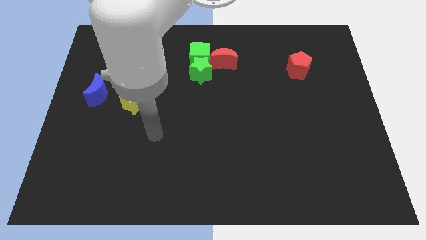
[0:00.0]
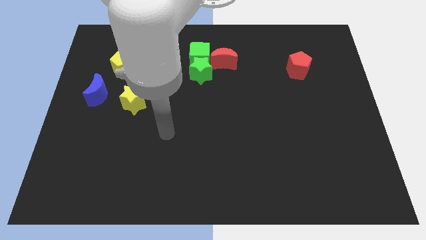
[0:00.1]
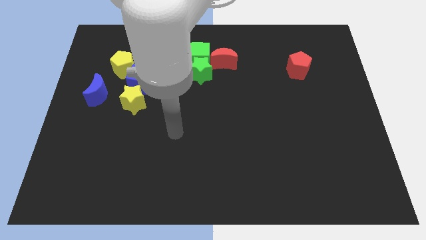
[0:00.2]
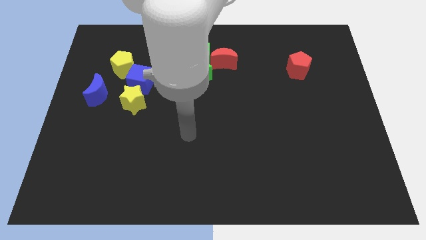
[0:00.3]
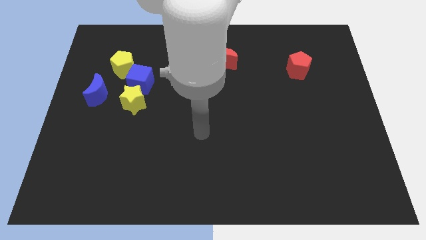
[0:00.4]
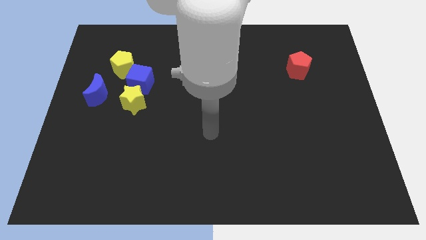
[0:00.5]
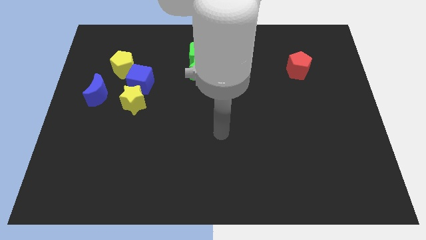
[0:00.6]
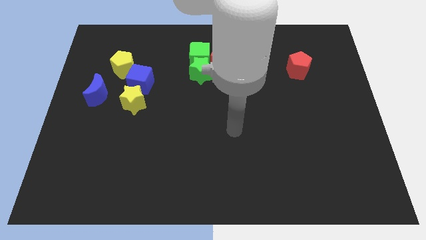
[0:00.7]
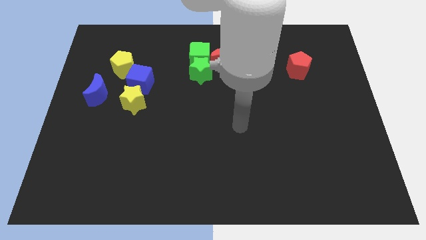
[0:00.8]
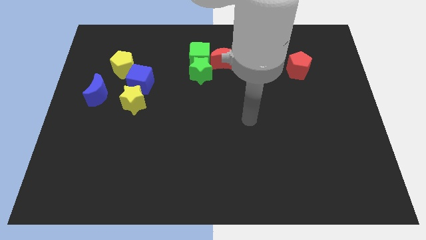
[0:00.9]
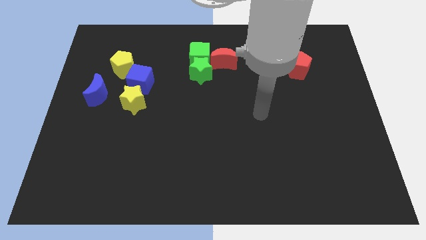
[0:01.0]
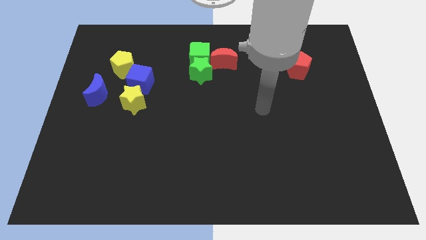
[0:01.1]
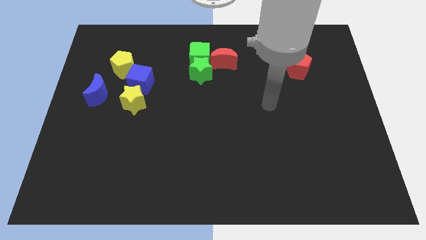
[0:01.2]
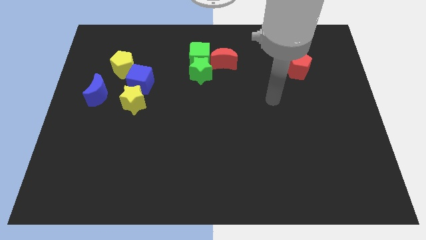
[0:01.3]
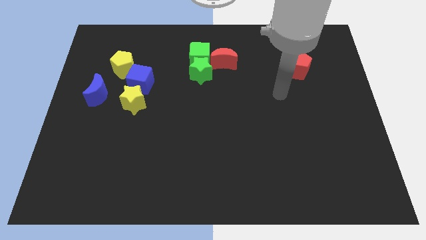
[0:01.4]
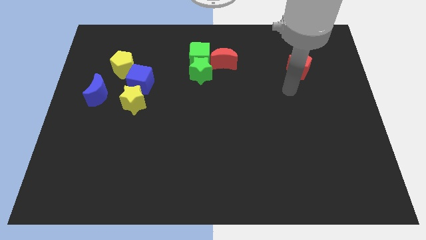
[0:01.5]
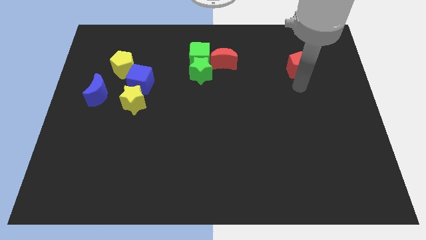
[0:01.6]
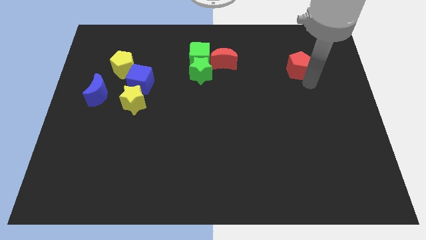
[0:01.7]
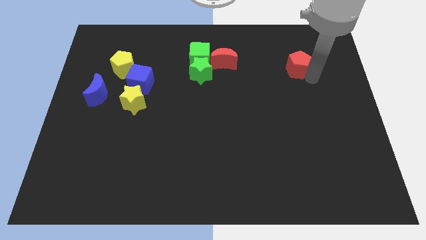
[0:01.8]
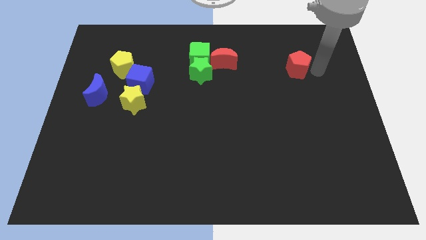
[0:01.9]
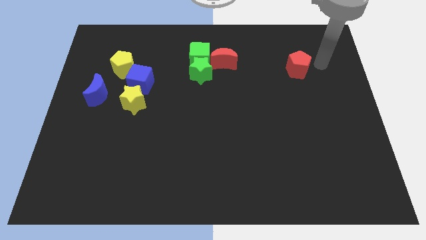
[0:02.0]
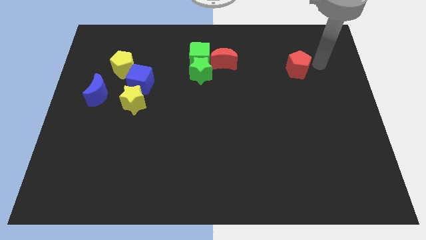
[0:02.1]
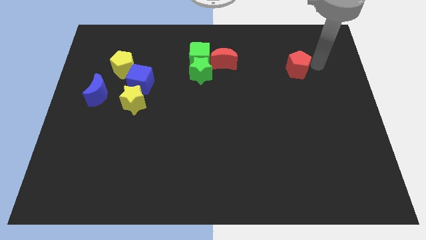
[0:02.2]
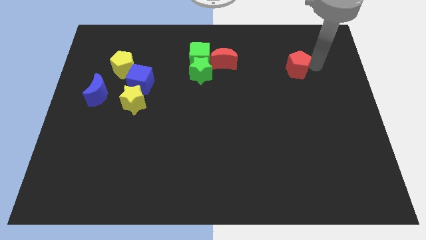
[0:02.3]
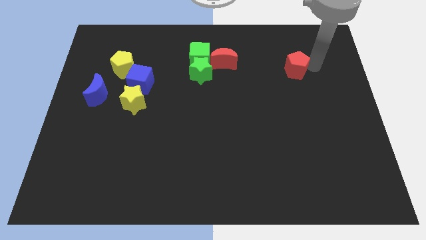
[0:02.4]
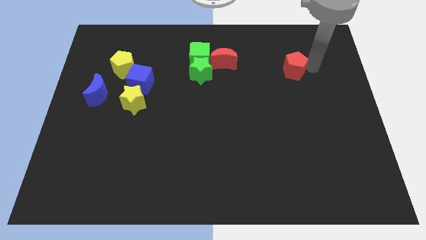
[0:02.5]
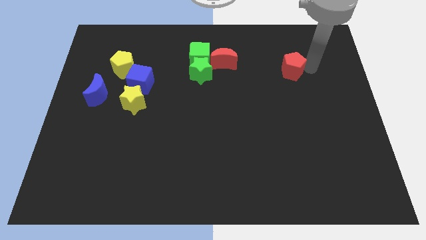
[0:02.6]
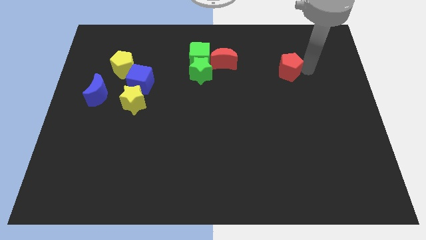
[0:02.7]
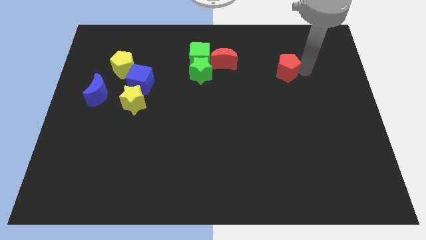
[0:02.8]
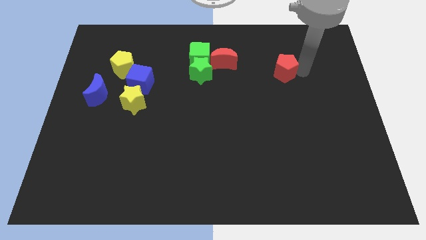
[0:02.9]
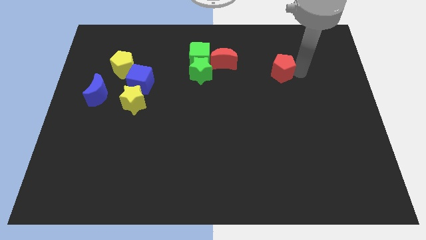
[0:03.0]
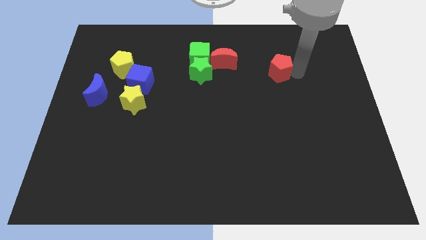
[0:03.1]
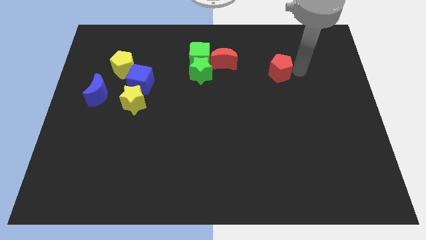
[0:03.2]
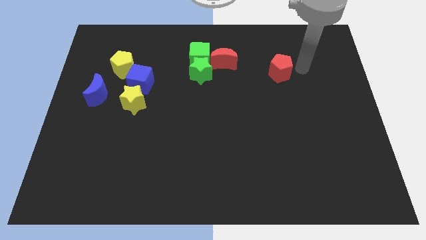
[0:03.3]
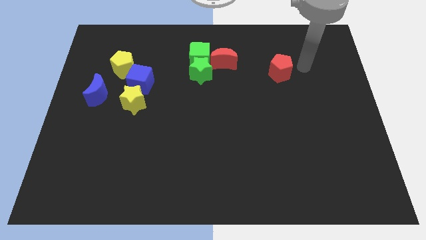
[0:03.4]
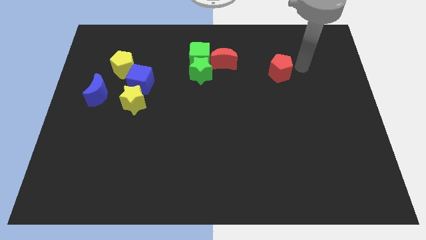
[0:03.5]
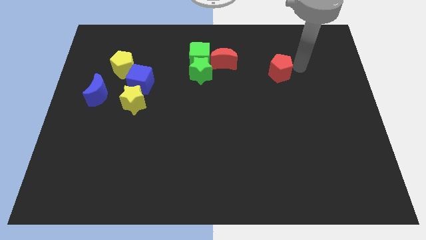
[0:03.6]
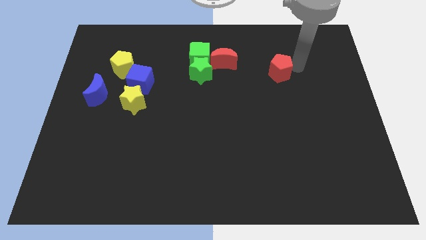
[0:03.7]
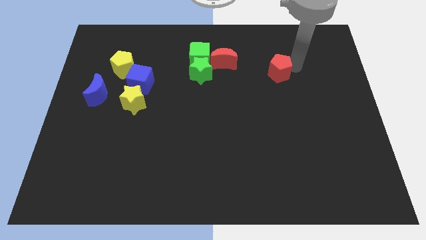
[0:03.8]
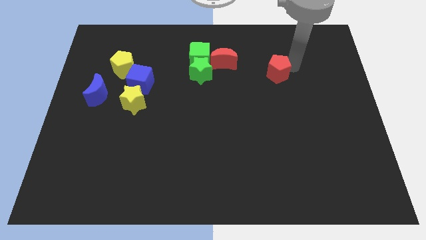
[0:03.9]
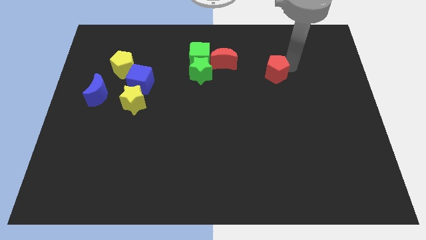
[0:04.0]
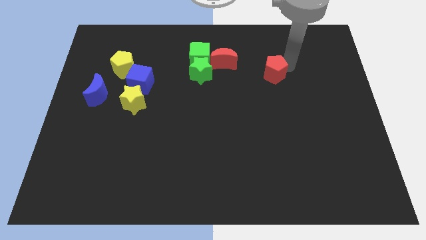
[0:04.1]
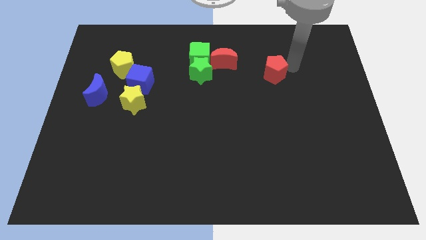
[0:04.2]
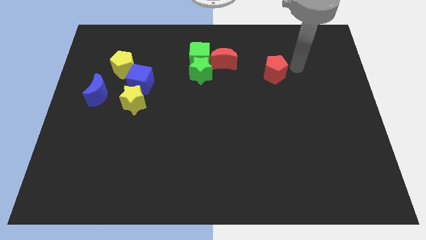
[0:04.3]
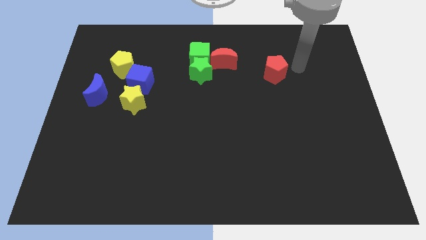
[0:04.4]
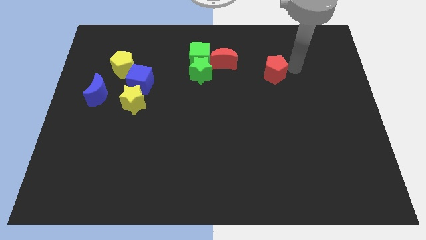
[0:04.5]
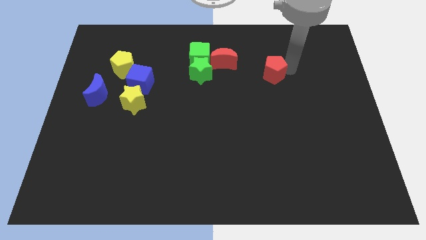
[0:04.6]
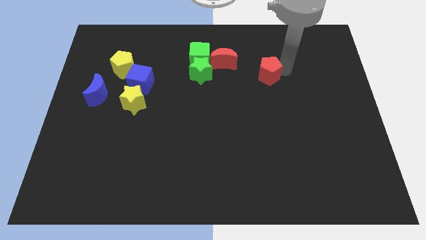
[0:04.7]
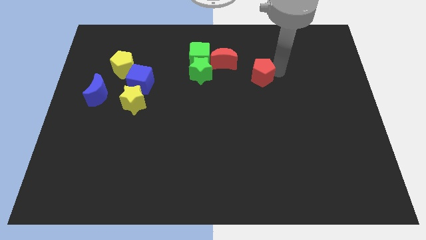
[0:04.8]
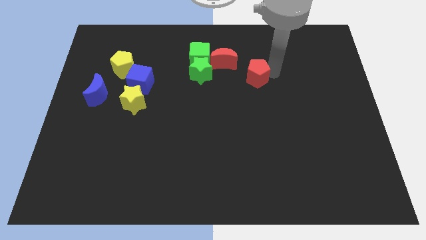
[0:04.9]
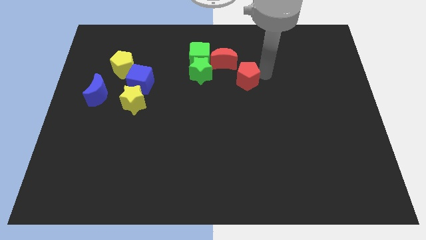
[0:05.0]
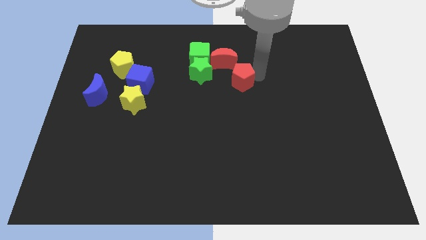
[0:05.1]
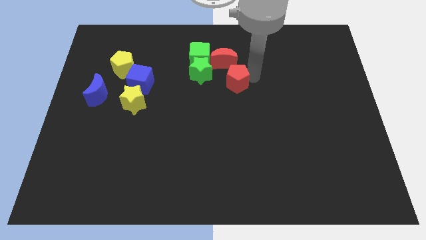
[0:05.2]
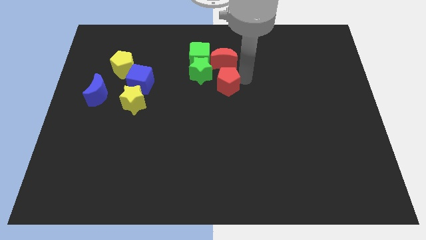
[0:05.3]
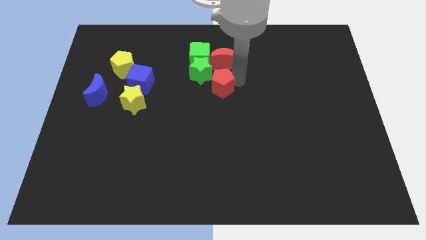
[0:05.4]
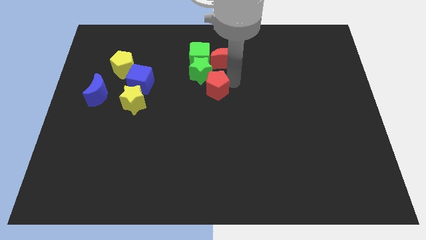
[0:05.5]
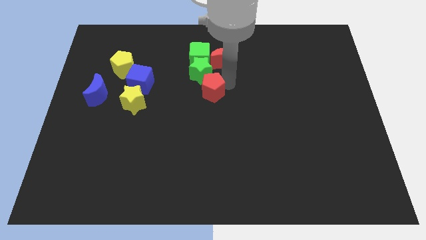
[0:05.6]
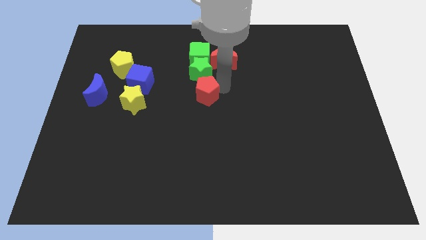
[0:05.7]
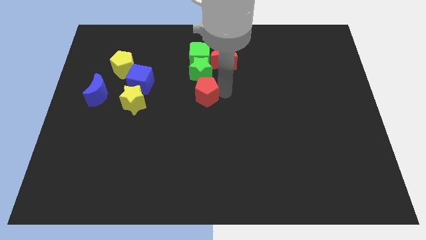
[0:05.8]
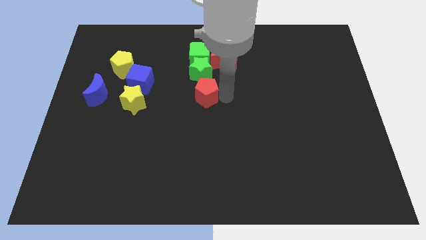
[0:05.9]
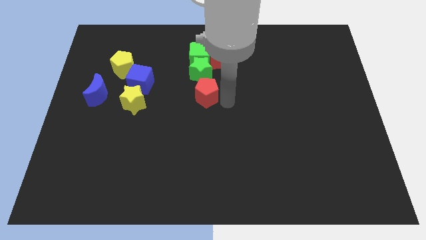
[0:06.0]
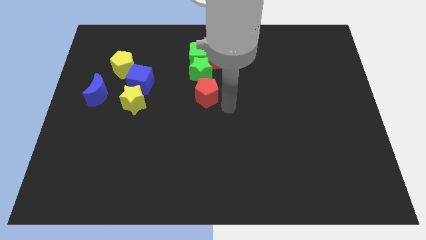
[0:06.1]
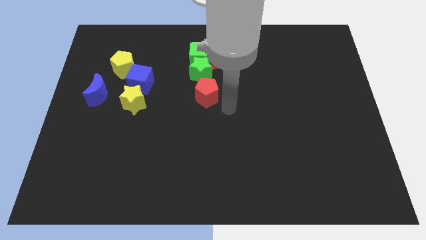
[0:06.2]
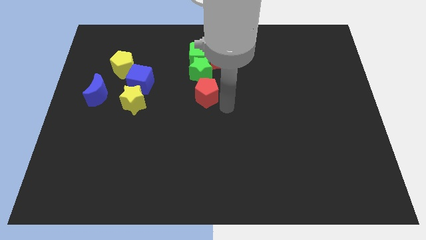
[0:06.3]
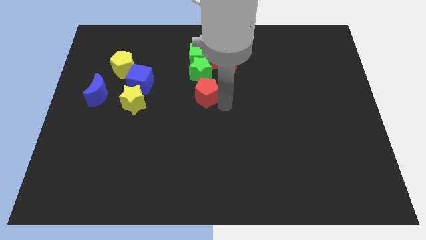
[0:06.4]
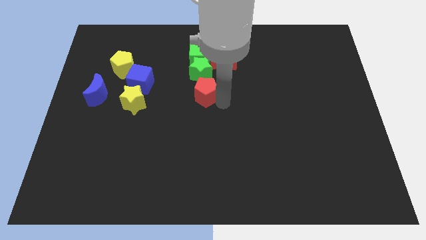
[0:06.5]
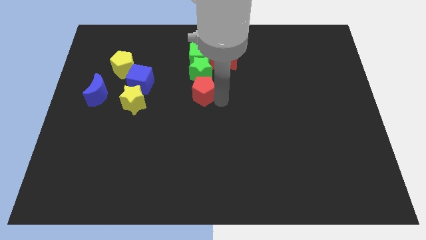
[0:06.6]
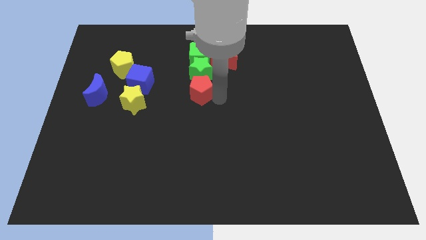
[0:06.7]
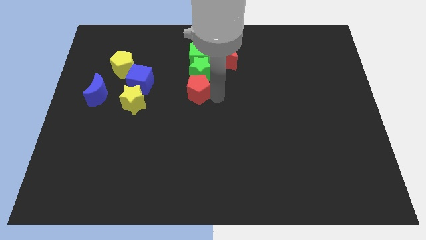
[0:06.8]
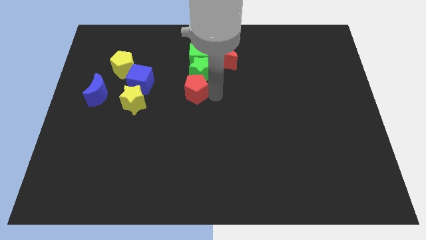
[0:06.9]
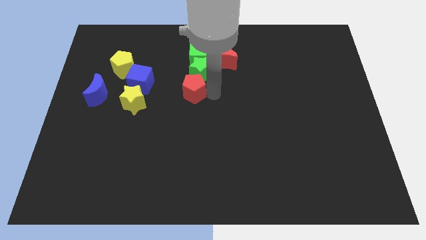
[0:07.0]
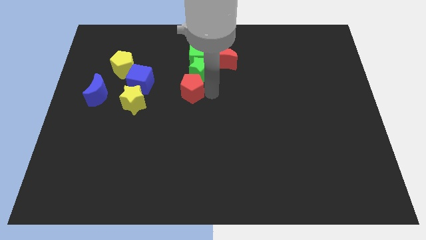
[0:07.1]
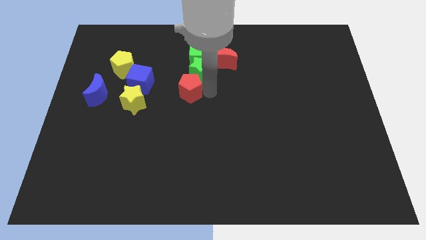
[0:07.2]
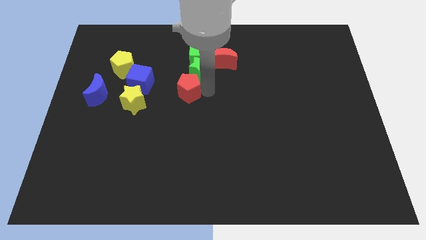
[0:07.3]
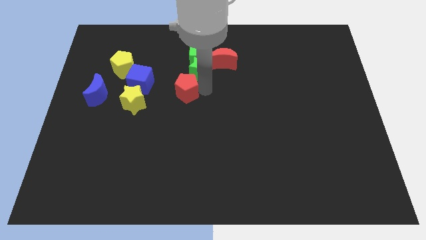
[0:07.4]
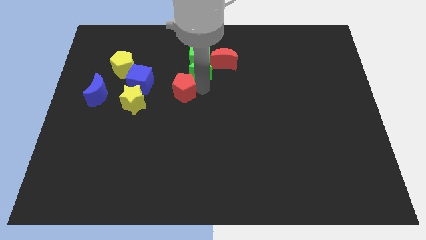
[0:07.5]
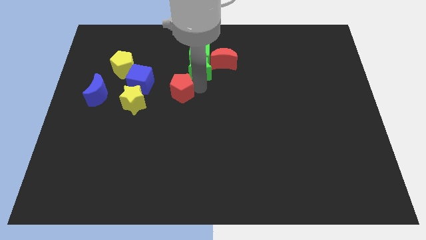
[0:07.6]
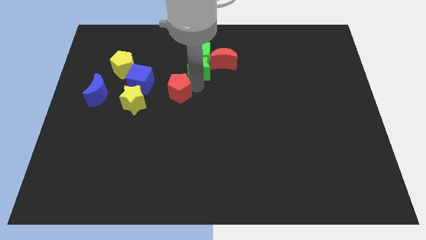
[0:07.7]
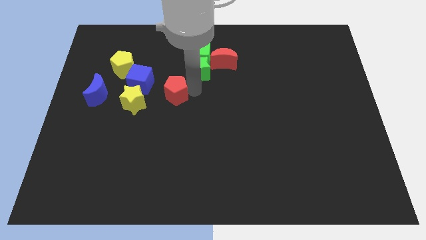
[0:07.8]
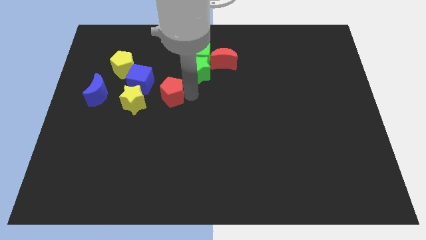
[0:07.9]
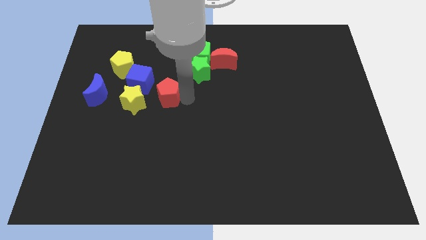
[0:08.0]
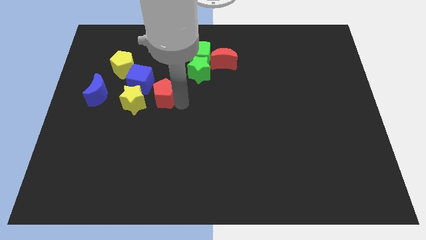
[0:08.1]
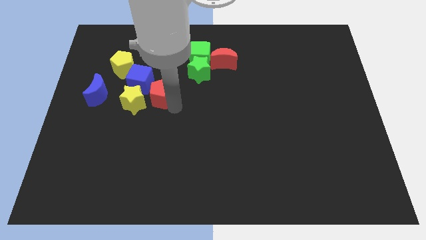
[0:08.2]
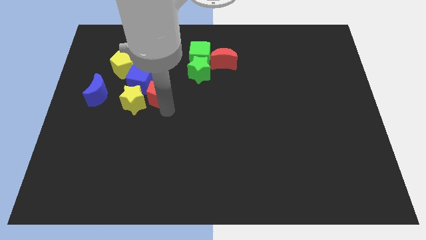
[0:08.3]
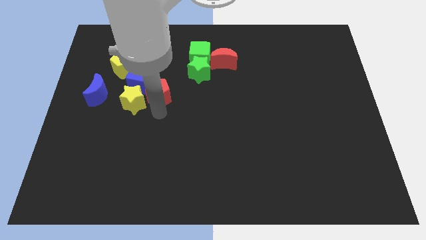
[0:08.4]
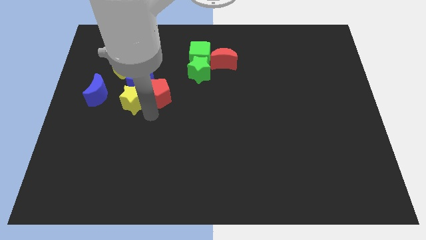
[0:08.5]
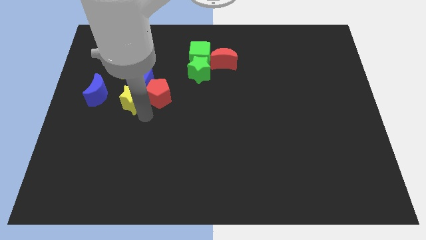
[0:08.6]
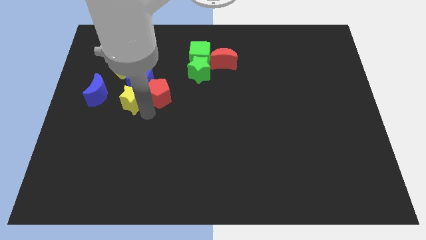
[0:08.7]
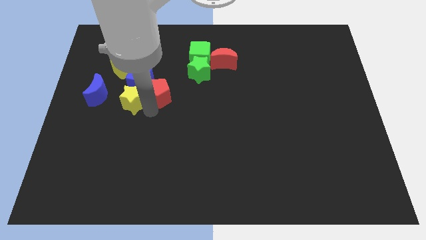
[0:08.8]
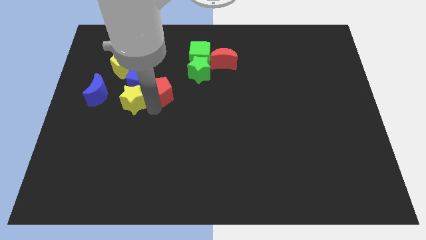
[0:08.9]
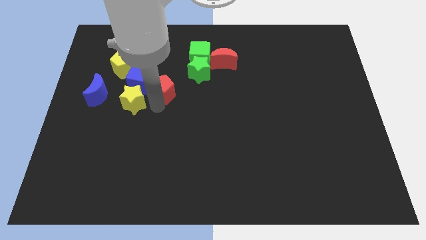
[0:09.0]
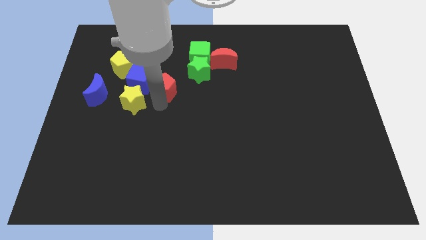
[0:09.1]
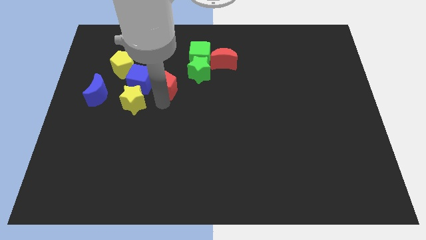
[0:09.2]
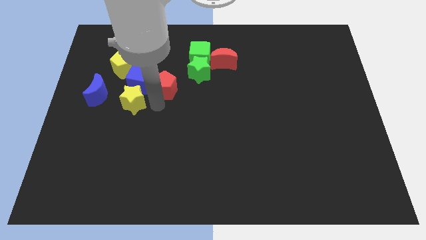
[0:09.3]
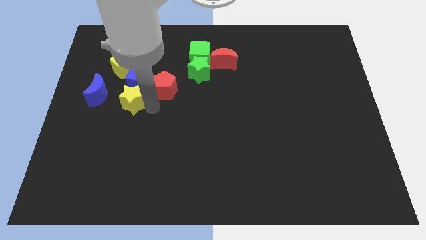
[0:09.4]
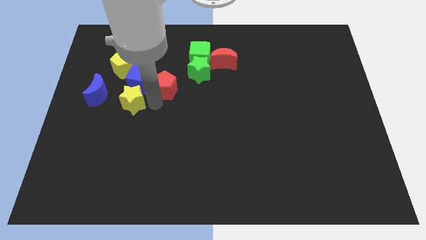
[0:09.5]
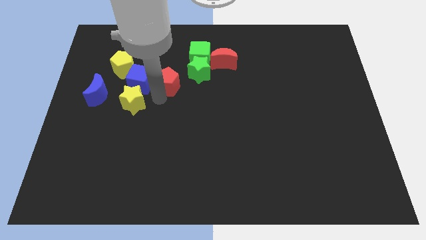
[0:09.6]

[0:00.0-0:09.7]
push the red pentagon diagonally down and to the left of the green cube
